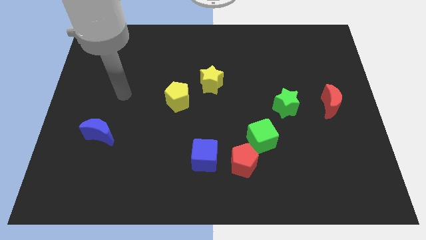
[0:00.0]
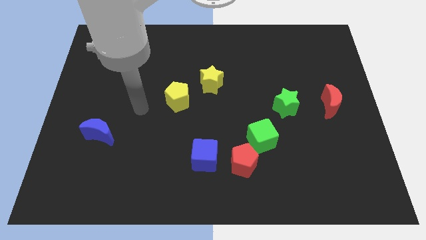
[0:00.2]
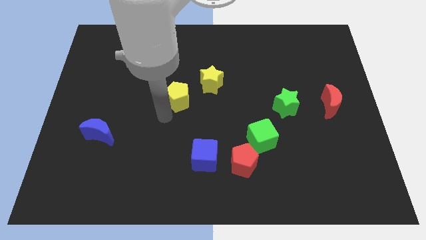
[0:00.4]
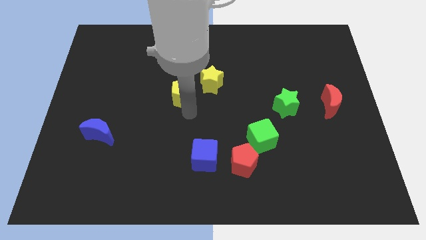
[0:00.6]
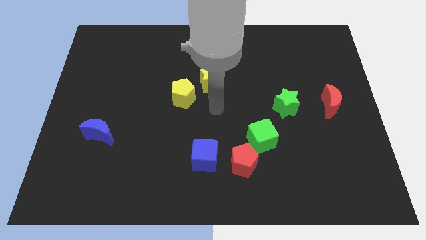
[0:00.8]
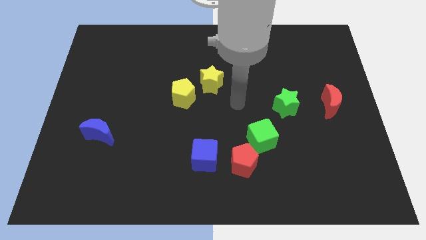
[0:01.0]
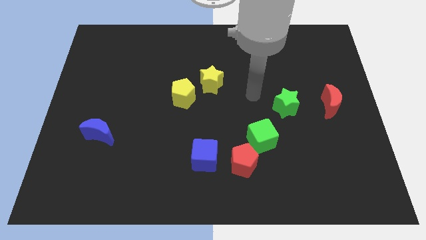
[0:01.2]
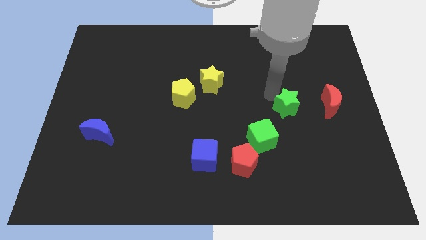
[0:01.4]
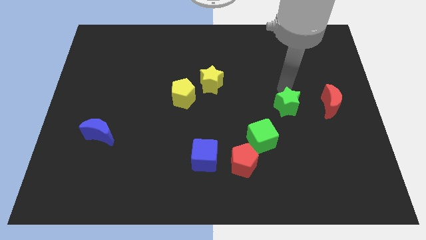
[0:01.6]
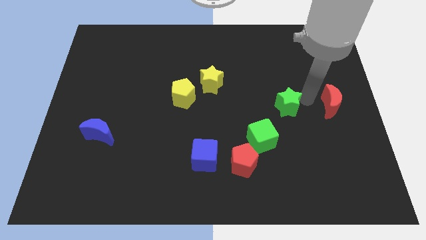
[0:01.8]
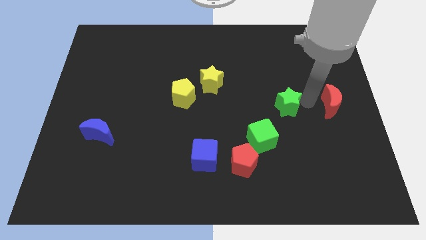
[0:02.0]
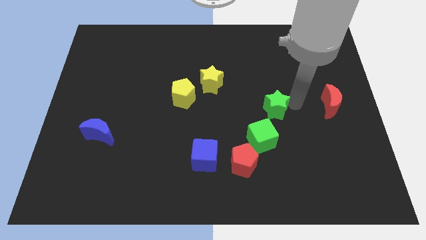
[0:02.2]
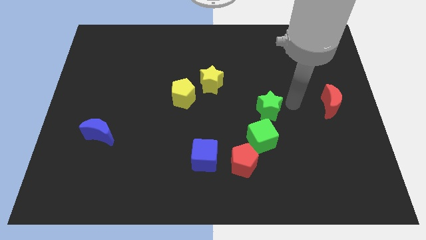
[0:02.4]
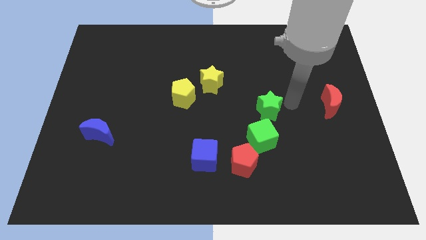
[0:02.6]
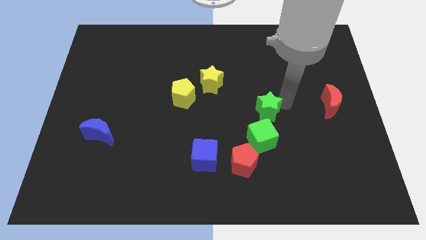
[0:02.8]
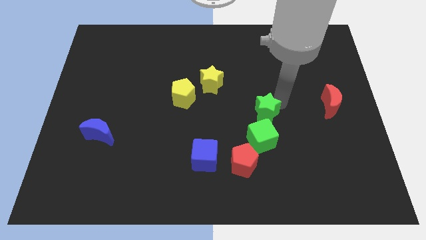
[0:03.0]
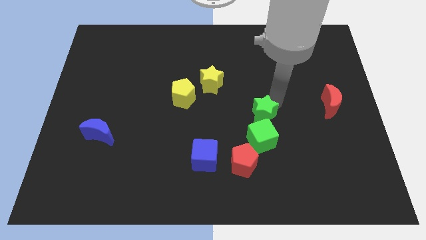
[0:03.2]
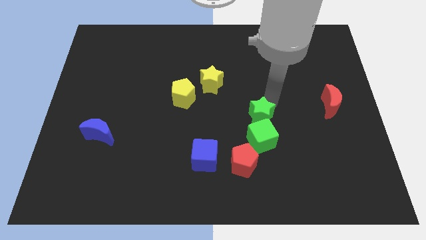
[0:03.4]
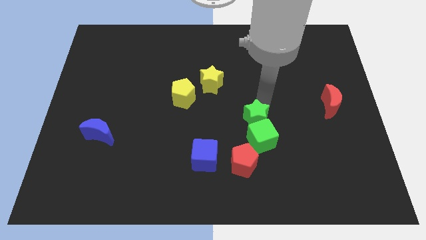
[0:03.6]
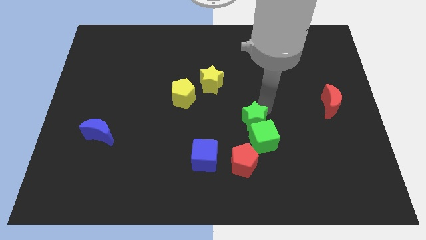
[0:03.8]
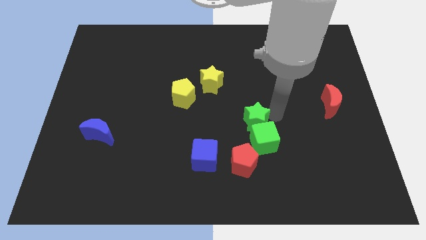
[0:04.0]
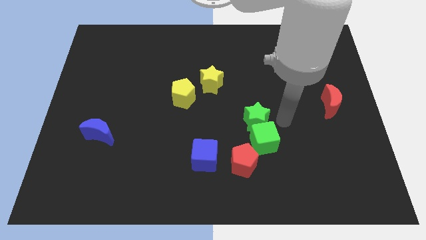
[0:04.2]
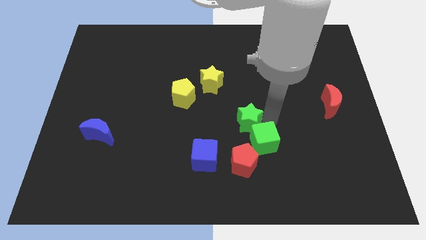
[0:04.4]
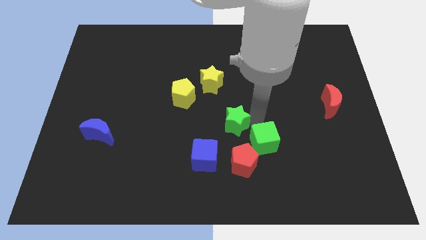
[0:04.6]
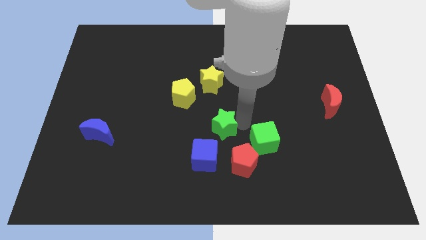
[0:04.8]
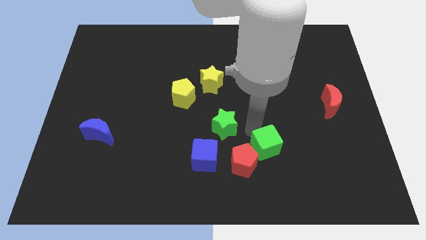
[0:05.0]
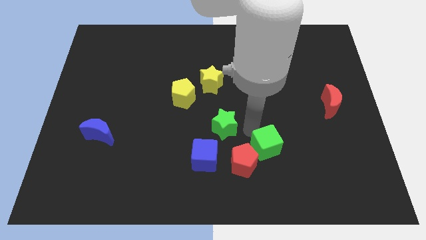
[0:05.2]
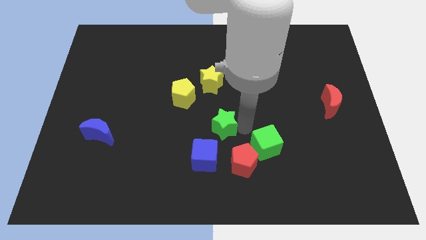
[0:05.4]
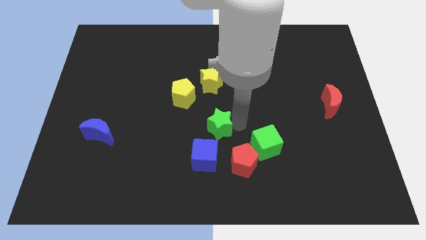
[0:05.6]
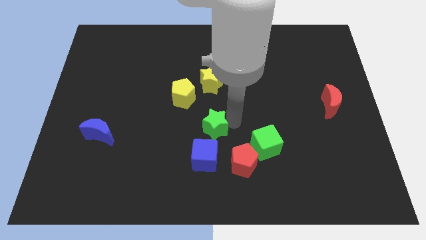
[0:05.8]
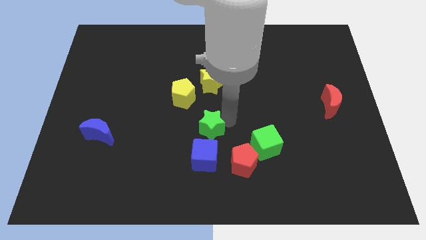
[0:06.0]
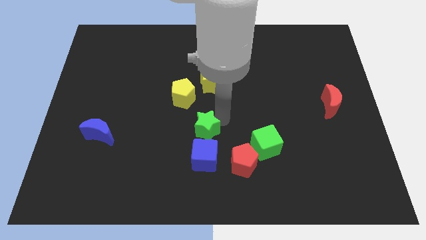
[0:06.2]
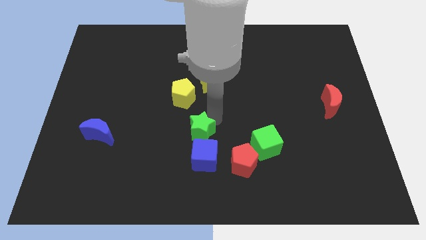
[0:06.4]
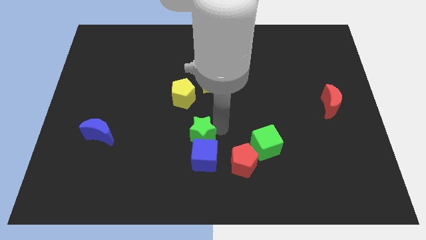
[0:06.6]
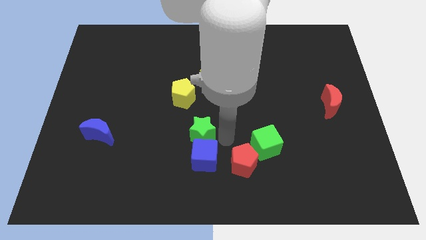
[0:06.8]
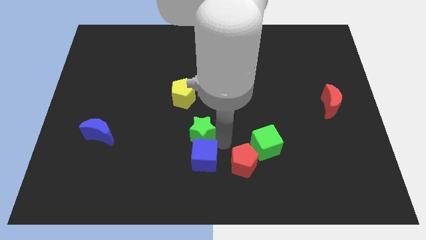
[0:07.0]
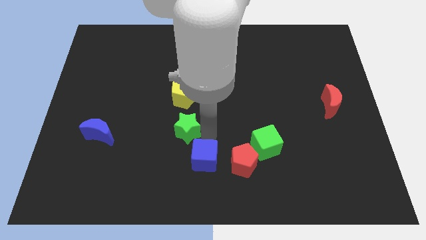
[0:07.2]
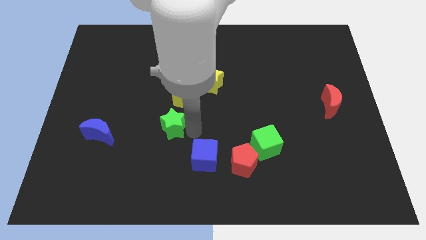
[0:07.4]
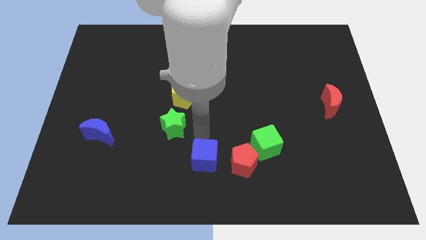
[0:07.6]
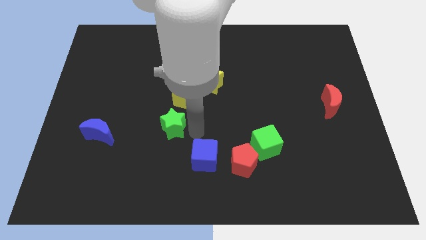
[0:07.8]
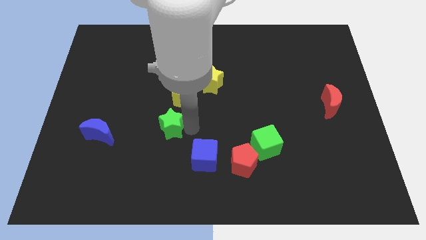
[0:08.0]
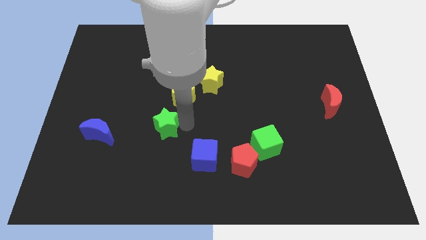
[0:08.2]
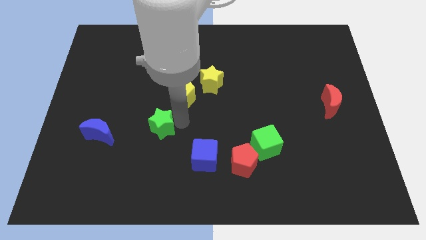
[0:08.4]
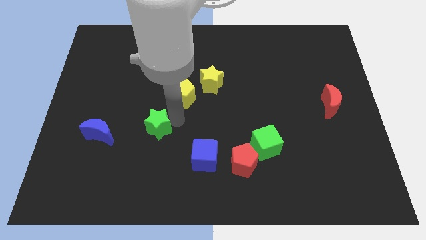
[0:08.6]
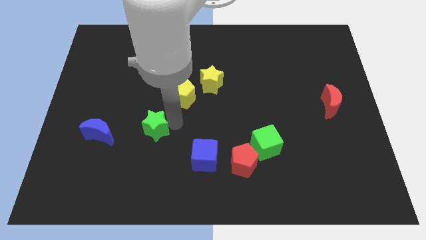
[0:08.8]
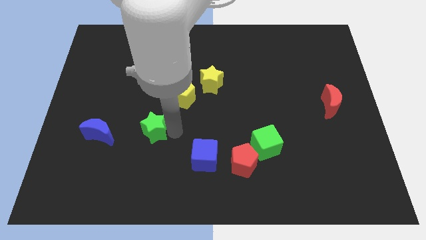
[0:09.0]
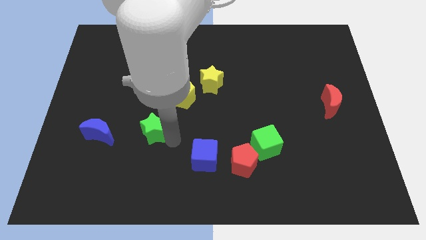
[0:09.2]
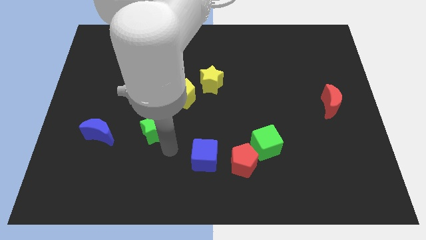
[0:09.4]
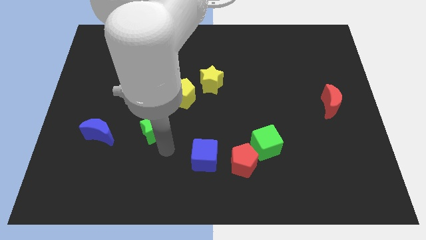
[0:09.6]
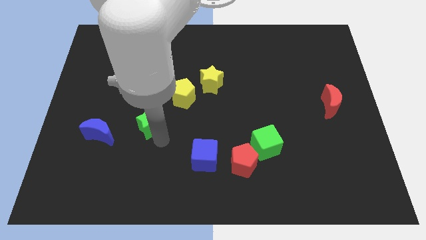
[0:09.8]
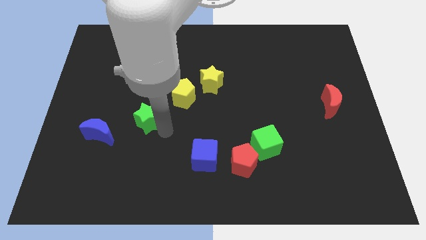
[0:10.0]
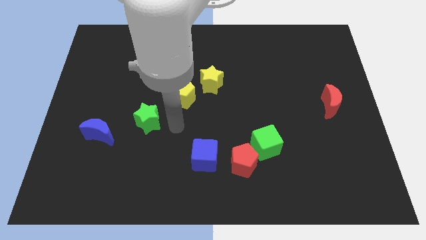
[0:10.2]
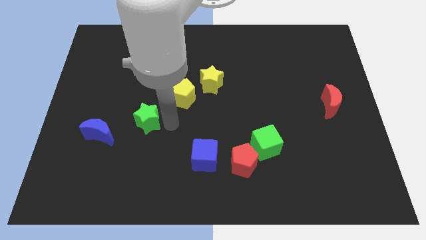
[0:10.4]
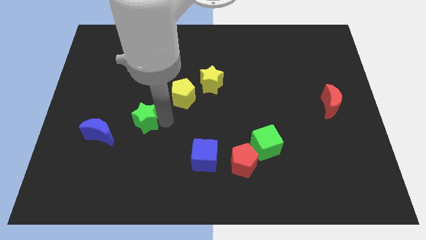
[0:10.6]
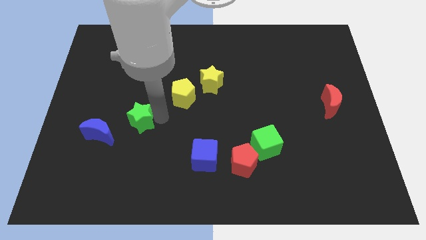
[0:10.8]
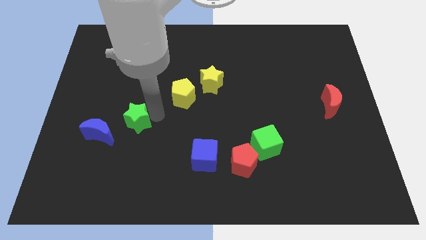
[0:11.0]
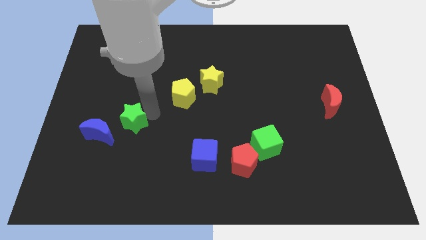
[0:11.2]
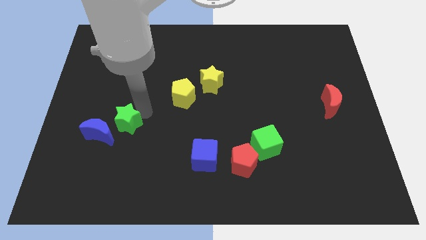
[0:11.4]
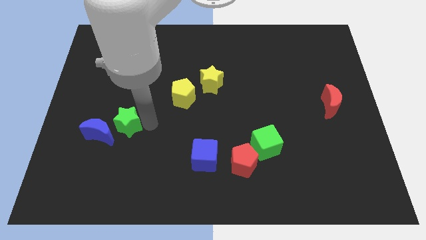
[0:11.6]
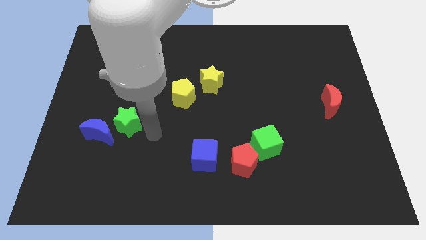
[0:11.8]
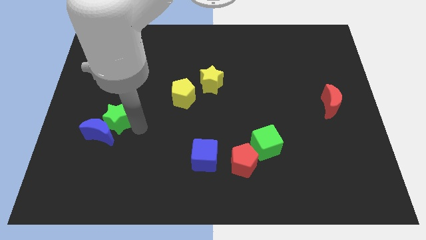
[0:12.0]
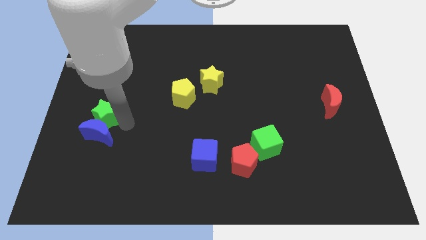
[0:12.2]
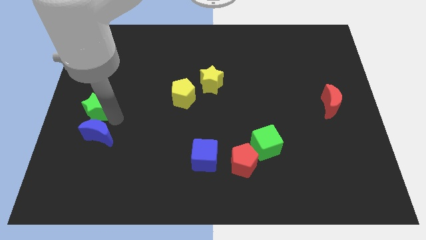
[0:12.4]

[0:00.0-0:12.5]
move the green star to the center left
